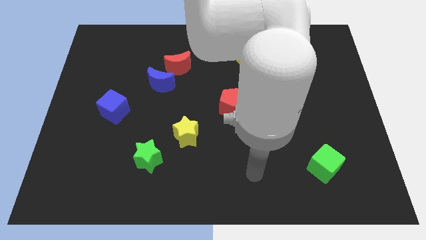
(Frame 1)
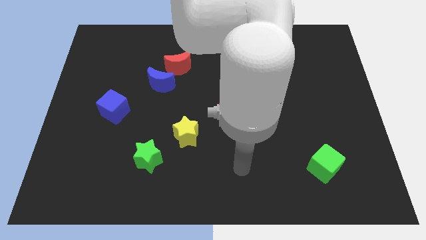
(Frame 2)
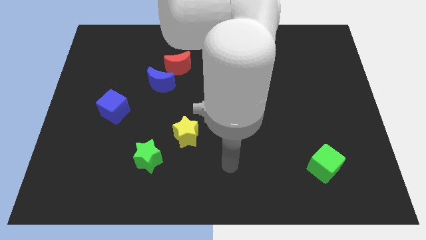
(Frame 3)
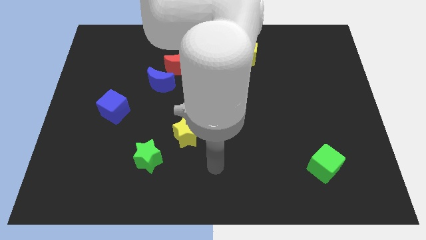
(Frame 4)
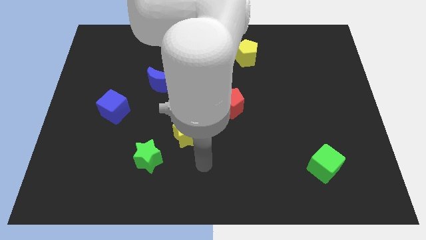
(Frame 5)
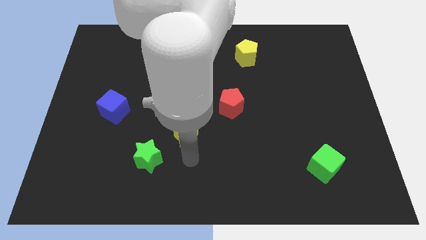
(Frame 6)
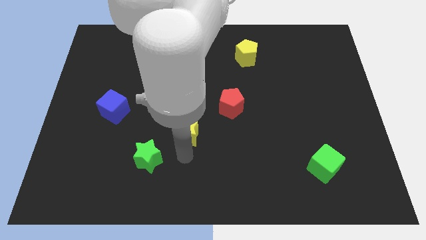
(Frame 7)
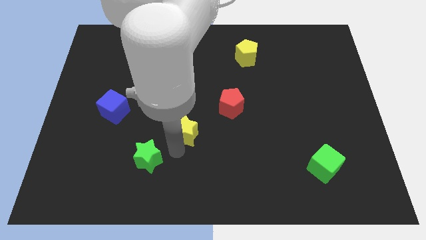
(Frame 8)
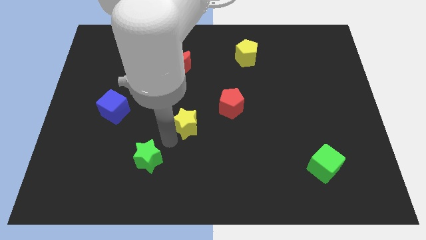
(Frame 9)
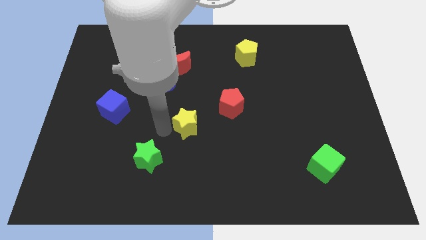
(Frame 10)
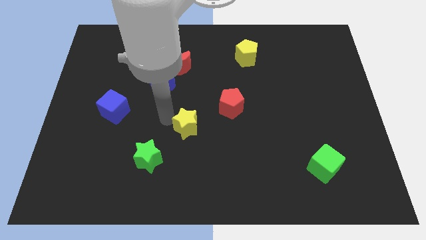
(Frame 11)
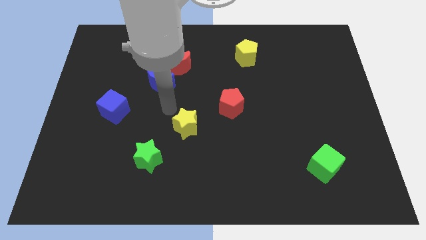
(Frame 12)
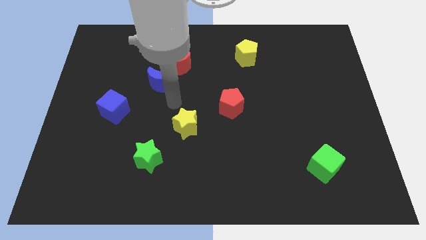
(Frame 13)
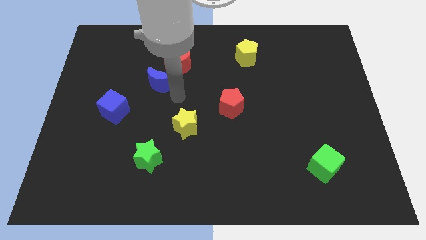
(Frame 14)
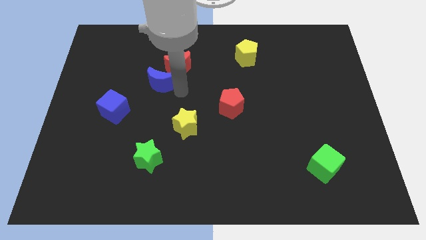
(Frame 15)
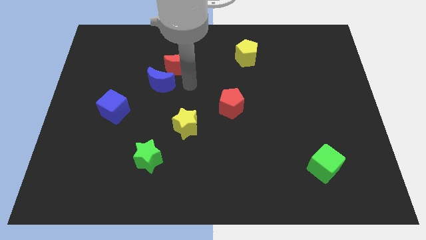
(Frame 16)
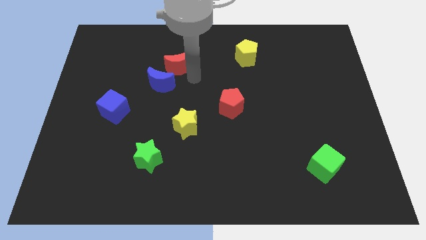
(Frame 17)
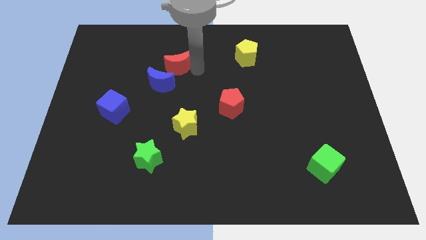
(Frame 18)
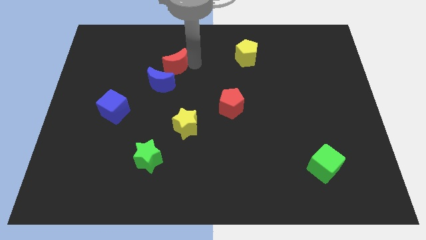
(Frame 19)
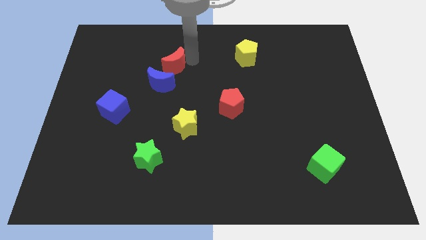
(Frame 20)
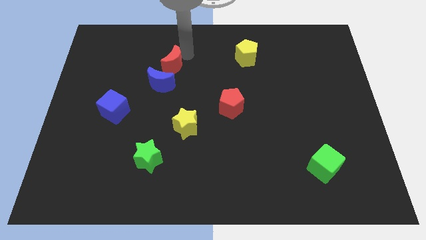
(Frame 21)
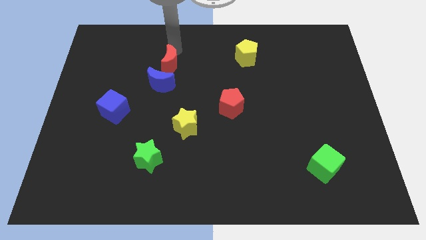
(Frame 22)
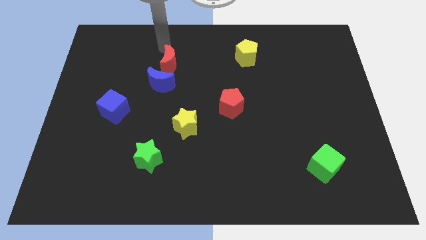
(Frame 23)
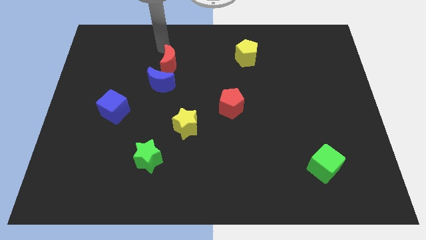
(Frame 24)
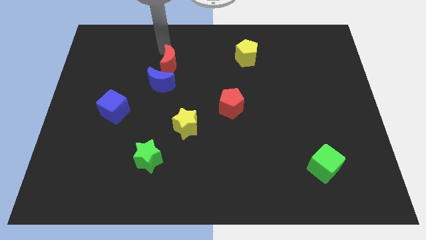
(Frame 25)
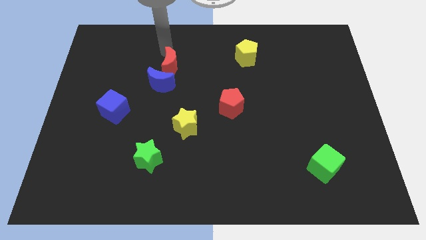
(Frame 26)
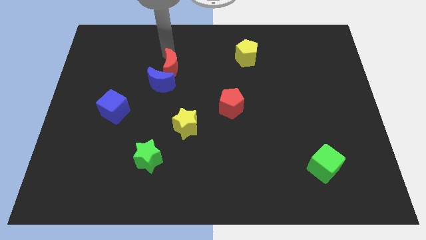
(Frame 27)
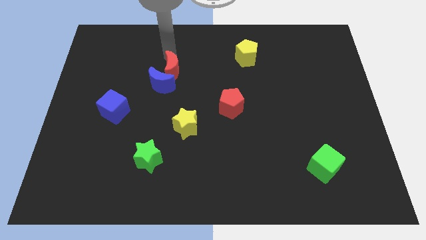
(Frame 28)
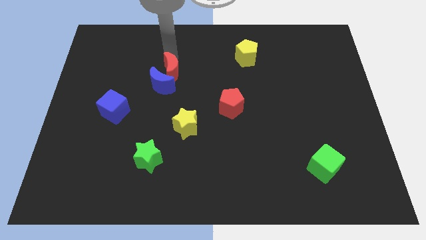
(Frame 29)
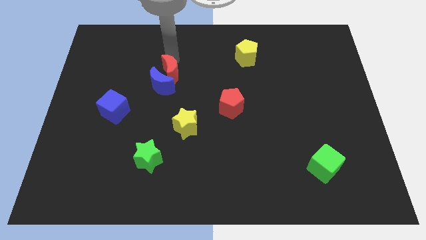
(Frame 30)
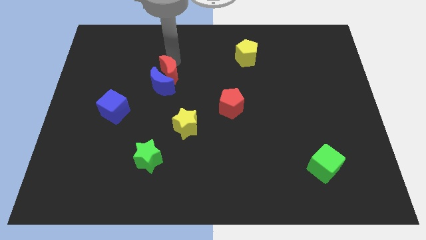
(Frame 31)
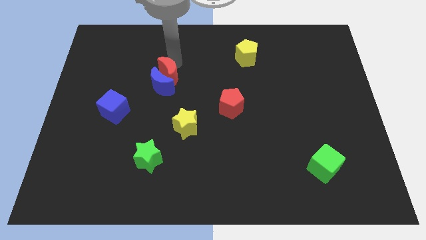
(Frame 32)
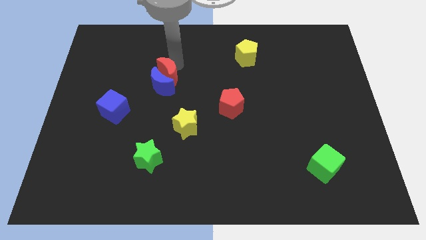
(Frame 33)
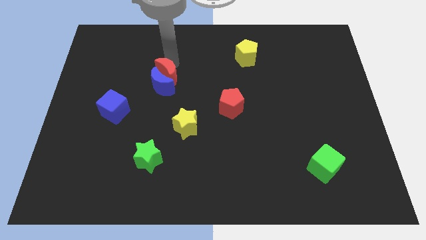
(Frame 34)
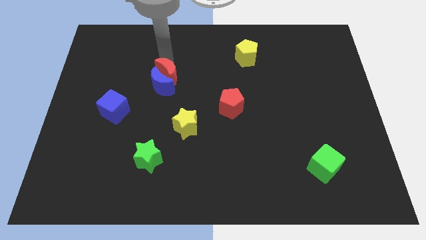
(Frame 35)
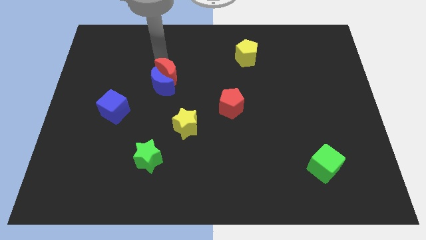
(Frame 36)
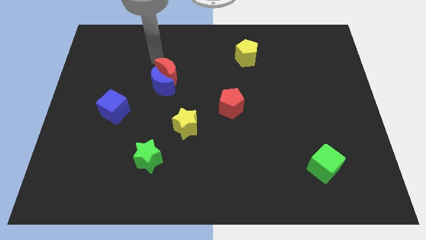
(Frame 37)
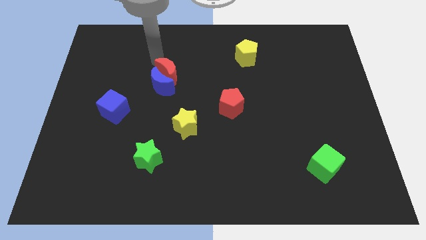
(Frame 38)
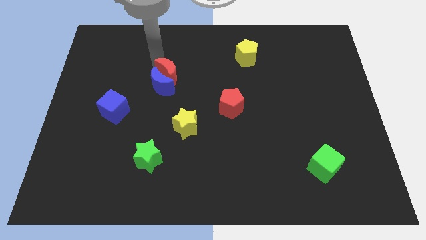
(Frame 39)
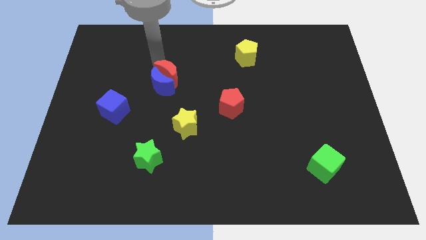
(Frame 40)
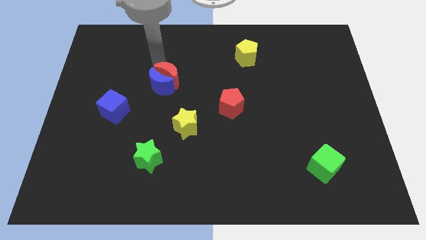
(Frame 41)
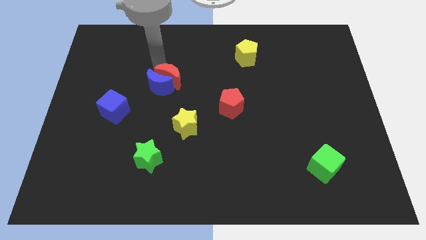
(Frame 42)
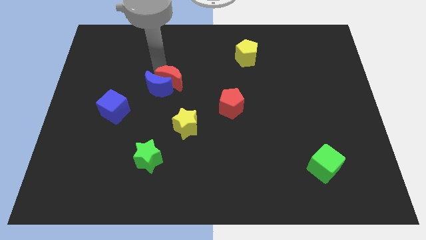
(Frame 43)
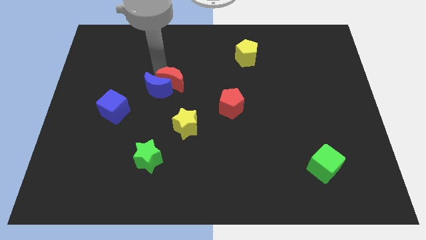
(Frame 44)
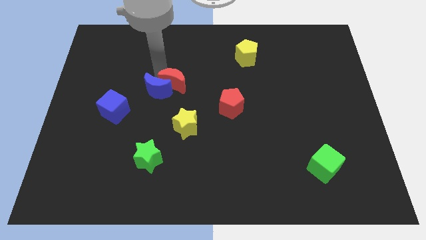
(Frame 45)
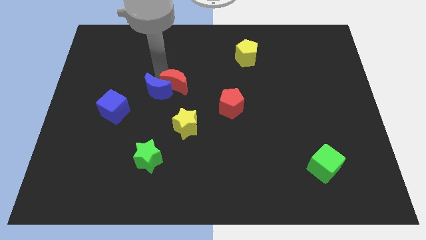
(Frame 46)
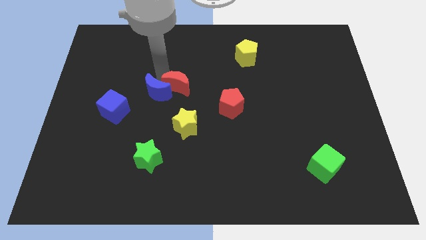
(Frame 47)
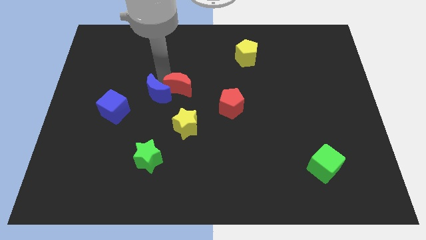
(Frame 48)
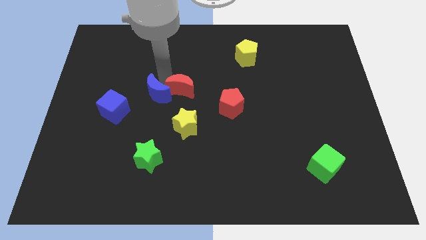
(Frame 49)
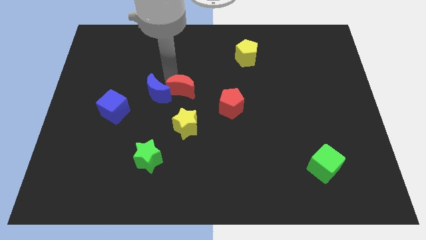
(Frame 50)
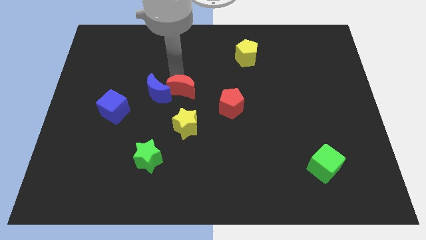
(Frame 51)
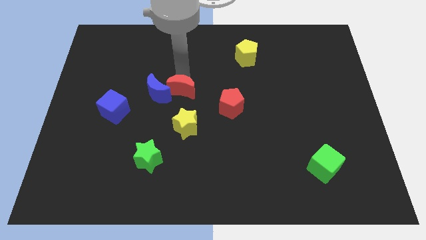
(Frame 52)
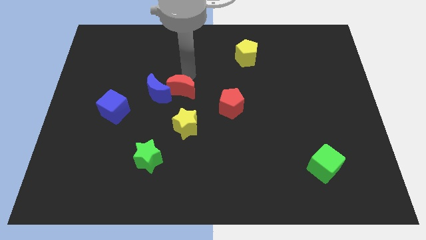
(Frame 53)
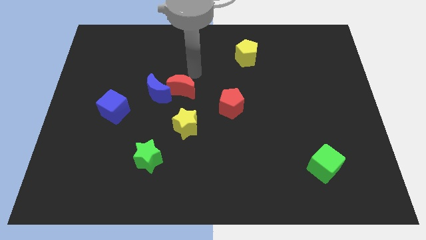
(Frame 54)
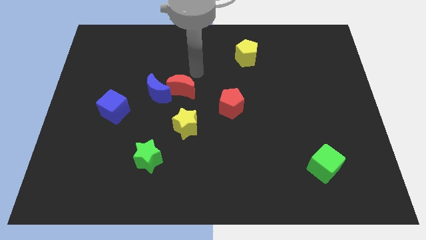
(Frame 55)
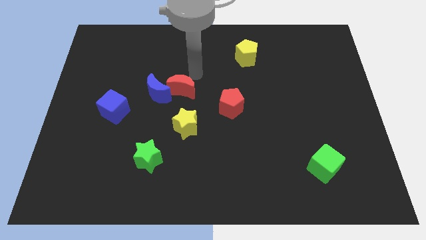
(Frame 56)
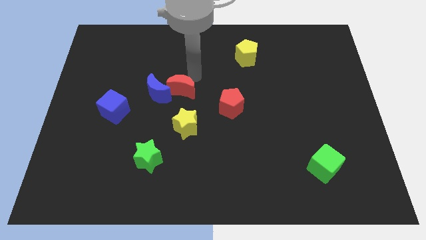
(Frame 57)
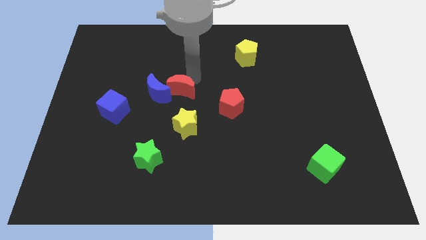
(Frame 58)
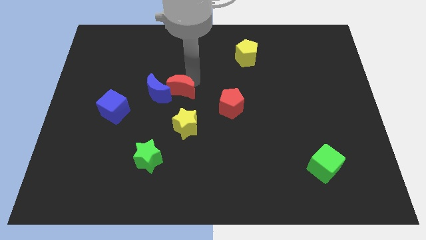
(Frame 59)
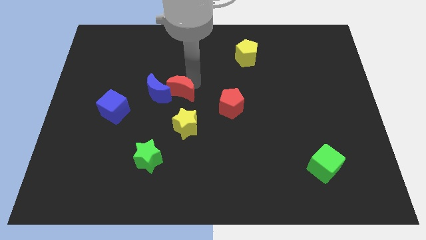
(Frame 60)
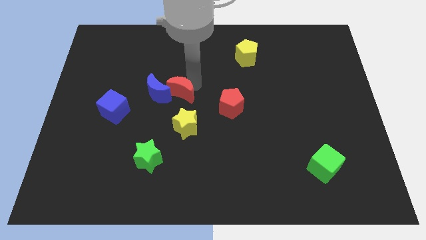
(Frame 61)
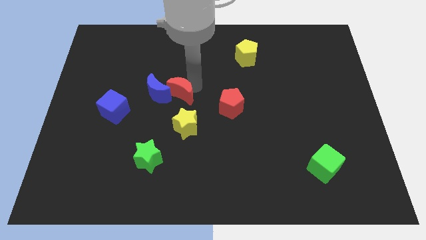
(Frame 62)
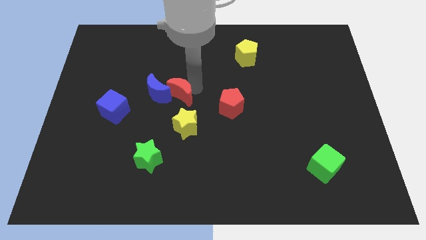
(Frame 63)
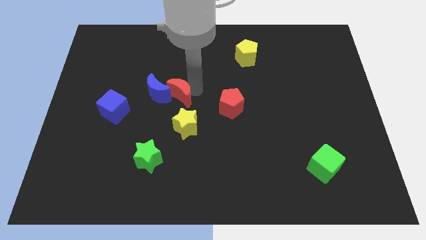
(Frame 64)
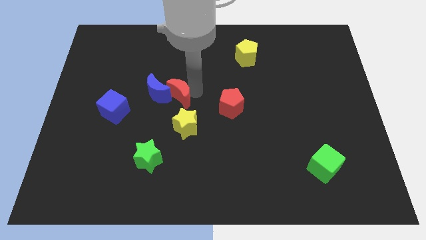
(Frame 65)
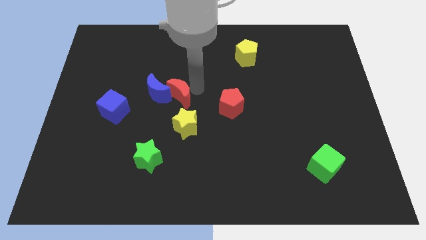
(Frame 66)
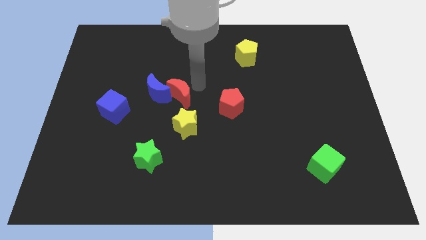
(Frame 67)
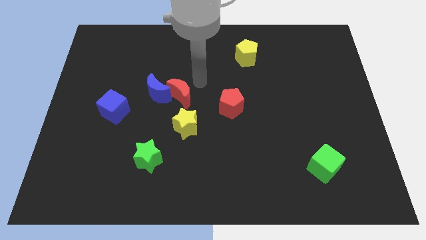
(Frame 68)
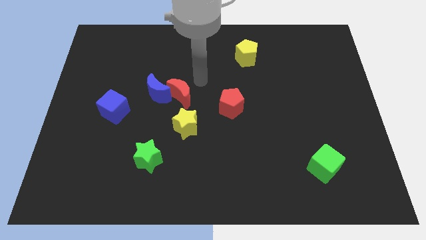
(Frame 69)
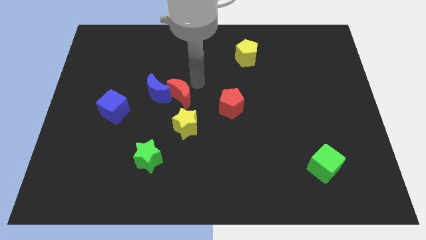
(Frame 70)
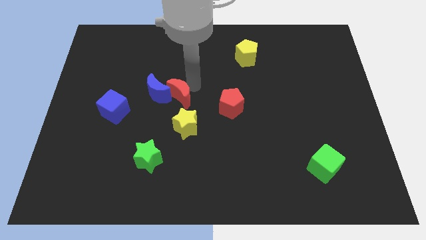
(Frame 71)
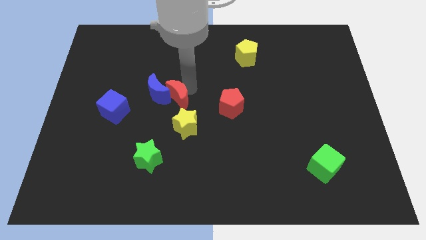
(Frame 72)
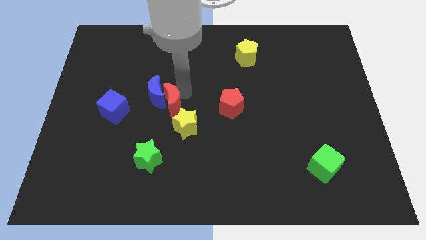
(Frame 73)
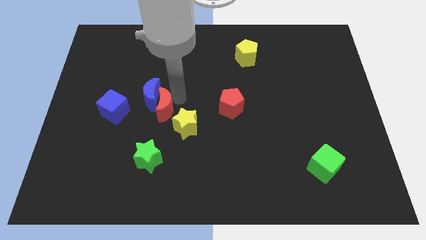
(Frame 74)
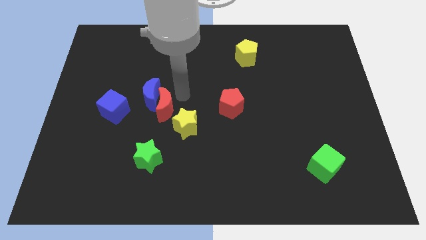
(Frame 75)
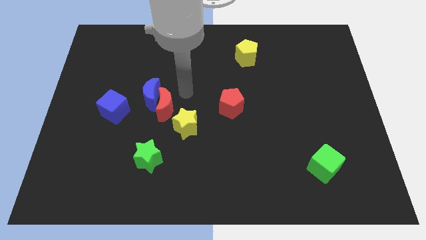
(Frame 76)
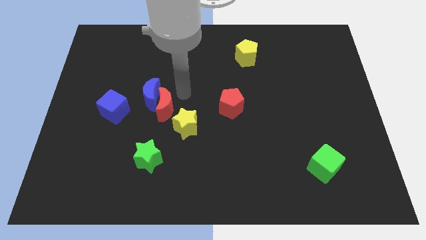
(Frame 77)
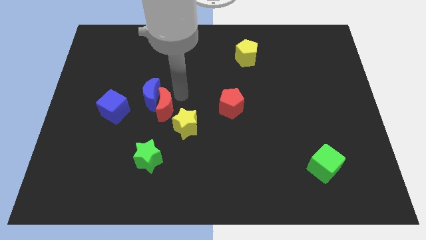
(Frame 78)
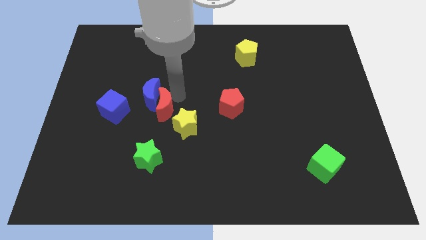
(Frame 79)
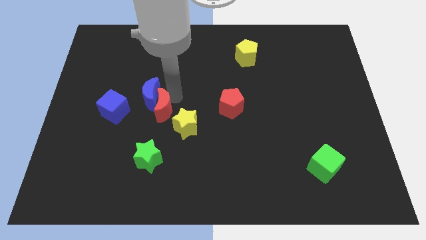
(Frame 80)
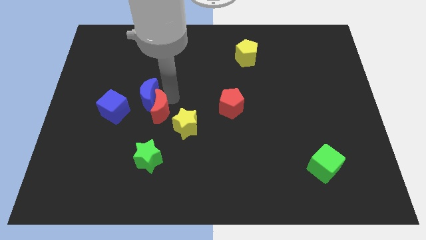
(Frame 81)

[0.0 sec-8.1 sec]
push the red moon just left of the yellow star
